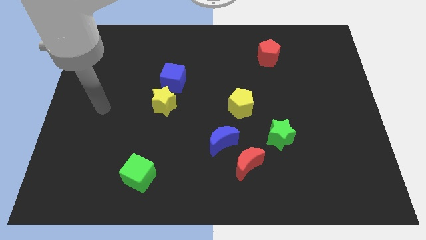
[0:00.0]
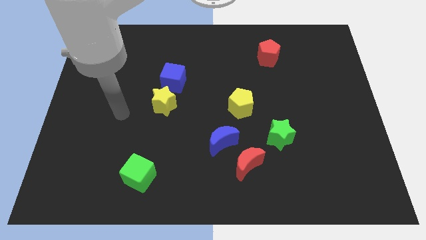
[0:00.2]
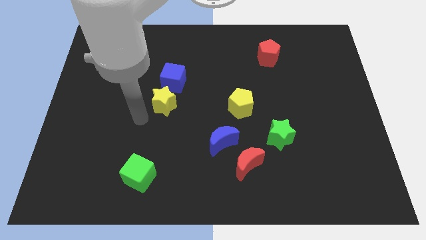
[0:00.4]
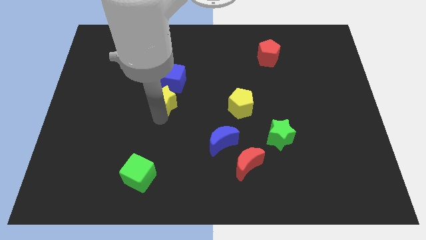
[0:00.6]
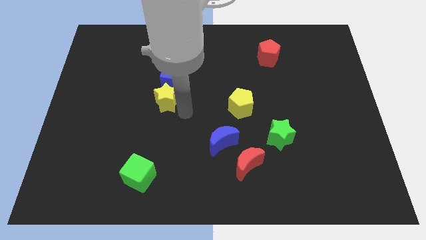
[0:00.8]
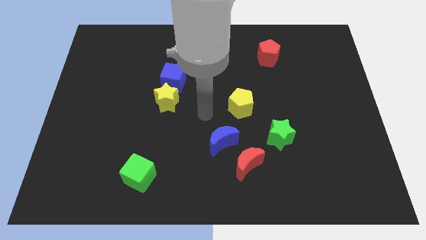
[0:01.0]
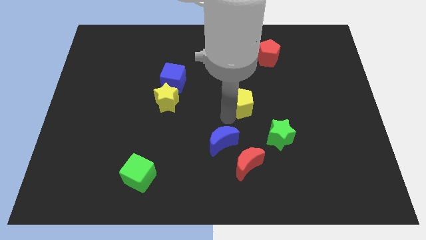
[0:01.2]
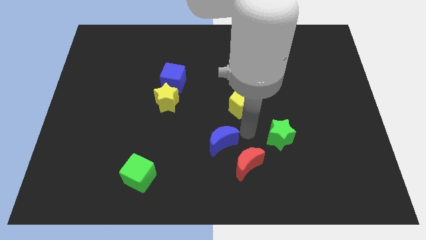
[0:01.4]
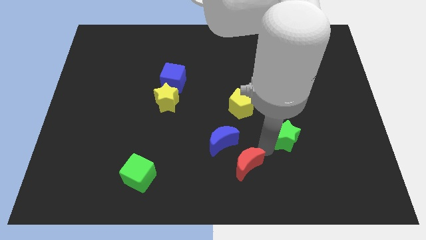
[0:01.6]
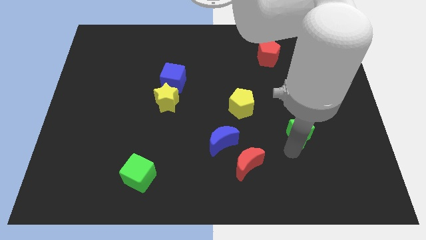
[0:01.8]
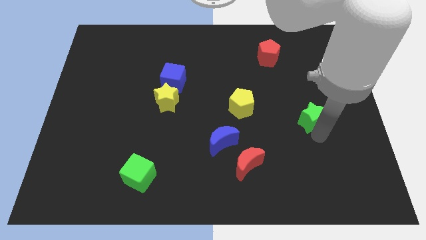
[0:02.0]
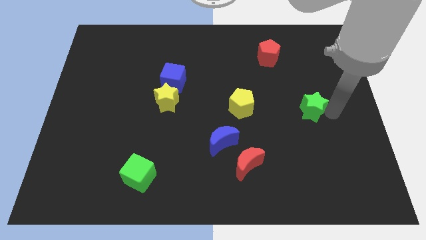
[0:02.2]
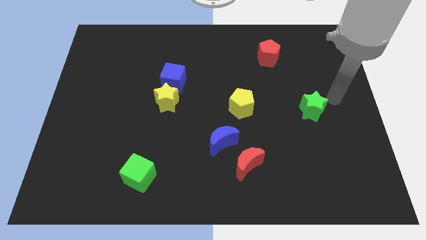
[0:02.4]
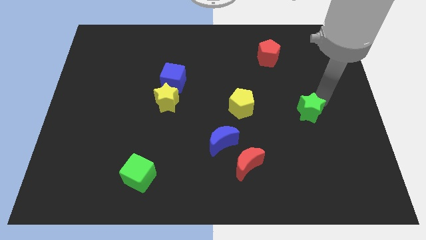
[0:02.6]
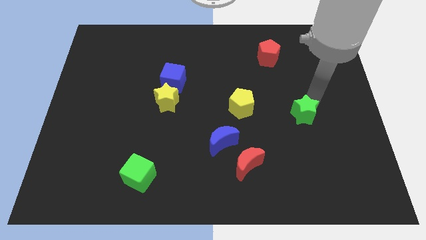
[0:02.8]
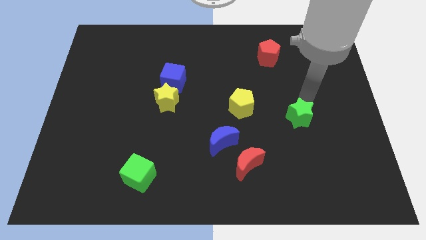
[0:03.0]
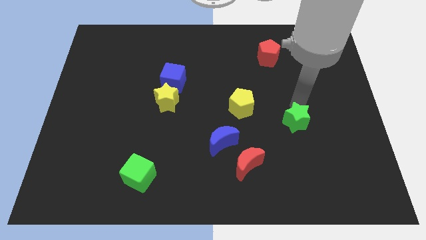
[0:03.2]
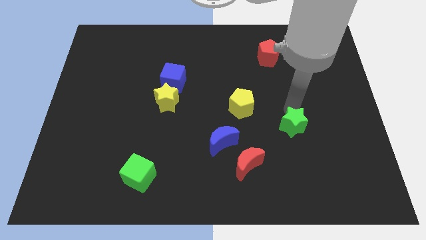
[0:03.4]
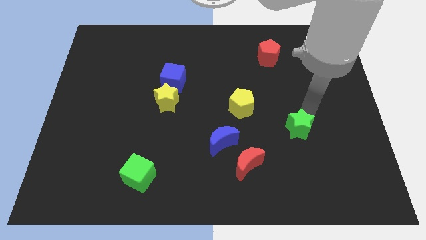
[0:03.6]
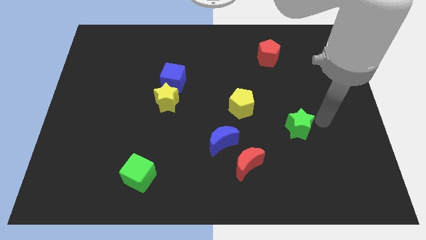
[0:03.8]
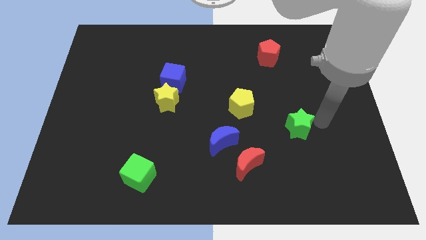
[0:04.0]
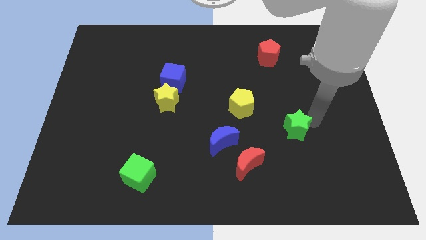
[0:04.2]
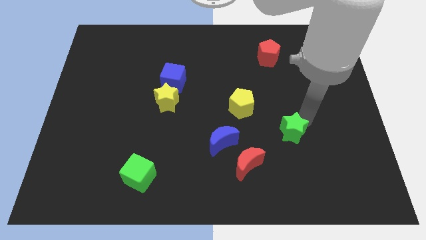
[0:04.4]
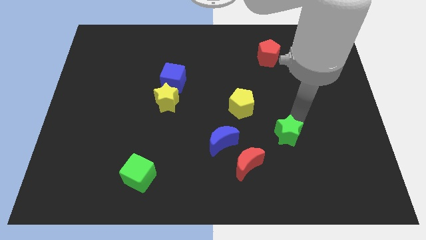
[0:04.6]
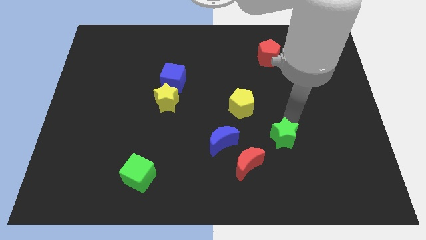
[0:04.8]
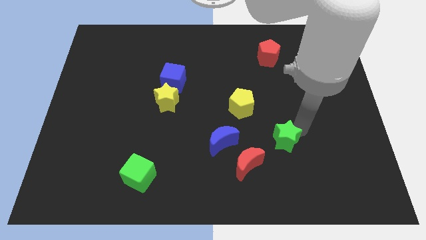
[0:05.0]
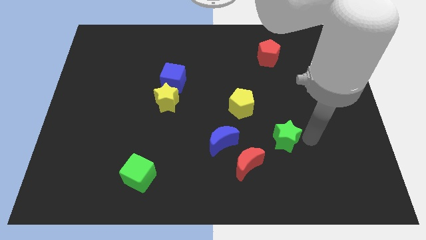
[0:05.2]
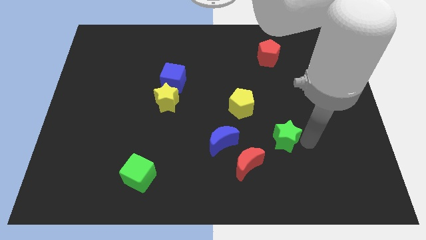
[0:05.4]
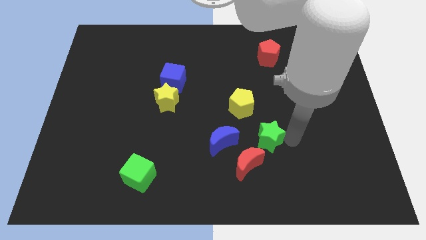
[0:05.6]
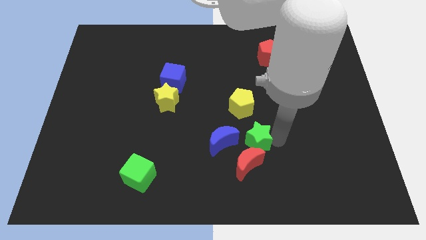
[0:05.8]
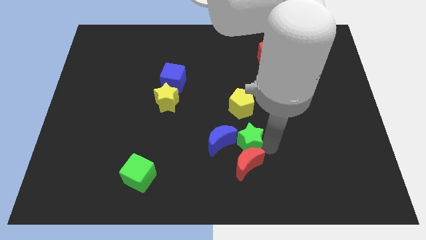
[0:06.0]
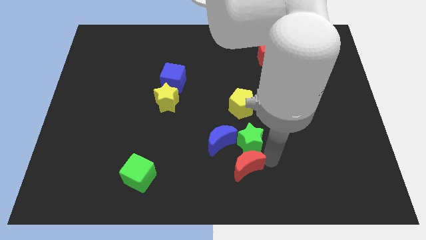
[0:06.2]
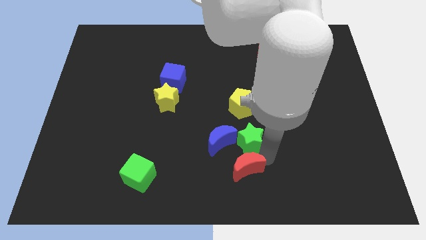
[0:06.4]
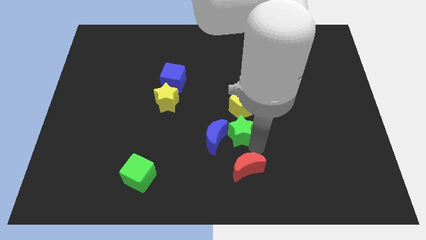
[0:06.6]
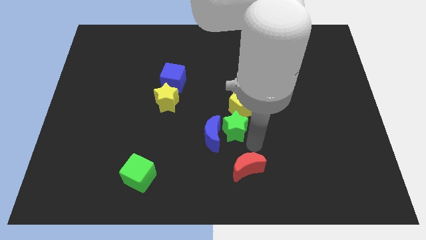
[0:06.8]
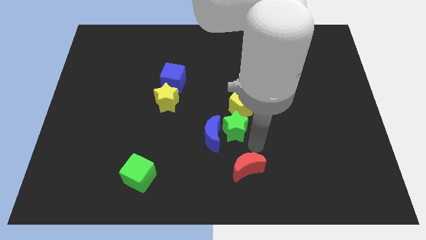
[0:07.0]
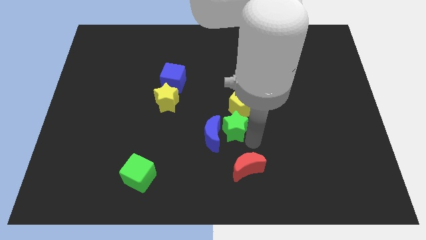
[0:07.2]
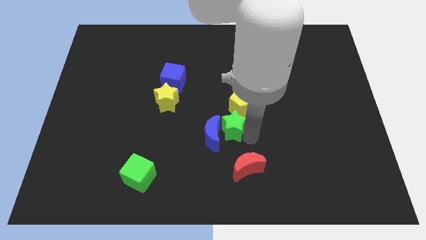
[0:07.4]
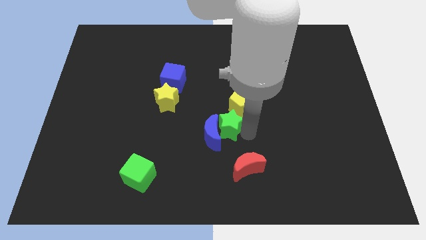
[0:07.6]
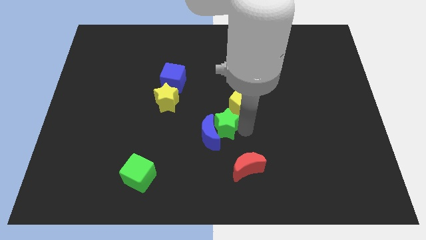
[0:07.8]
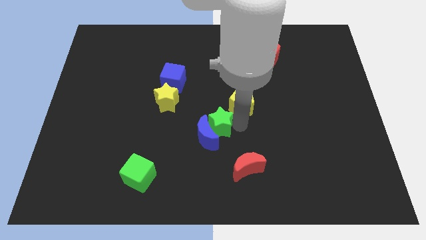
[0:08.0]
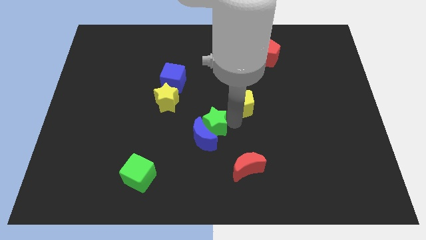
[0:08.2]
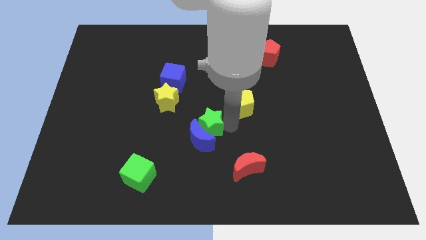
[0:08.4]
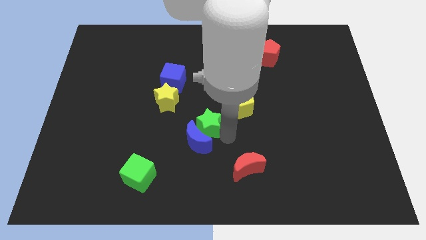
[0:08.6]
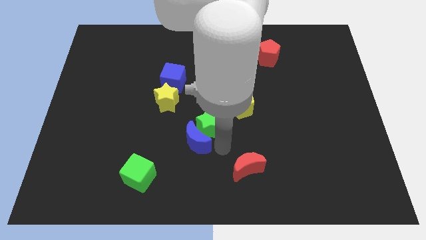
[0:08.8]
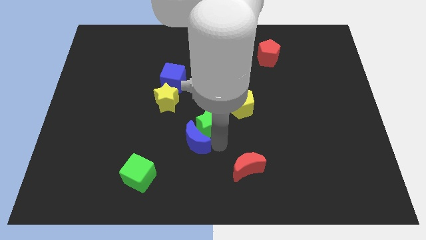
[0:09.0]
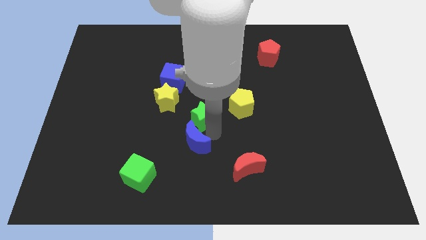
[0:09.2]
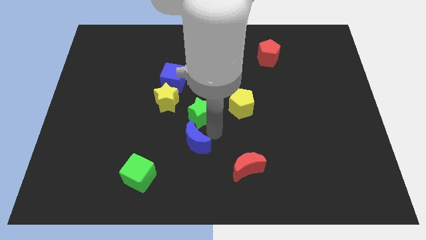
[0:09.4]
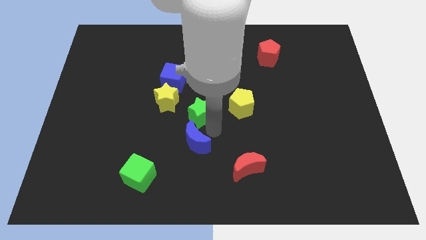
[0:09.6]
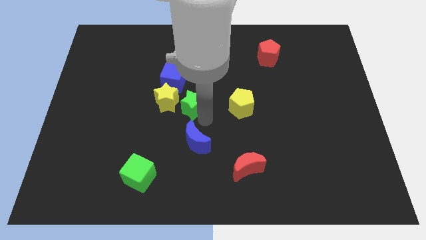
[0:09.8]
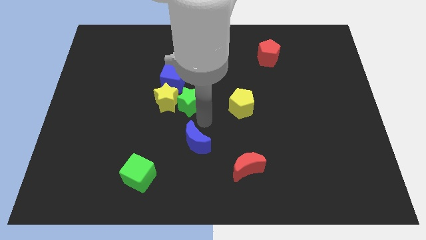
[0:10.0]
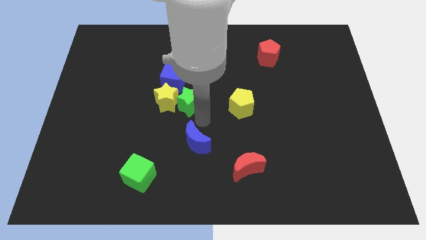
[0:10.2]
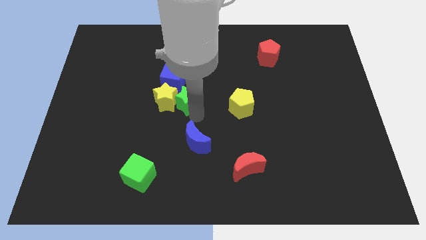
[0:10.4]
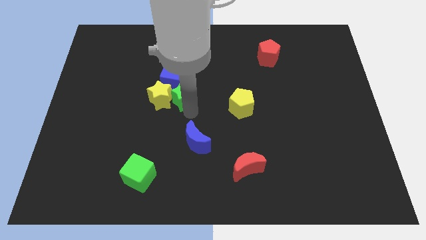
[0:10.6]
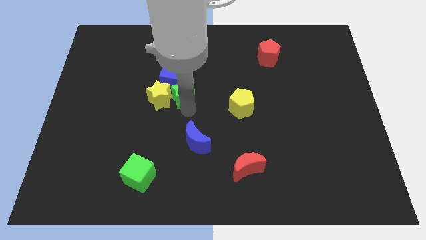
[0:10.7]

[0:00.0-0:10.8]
slide the green star close to the blue cube
